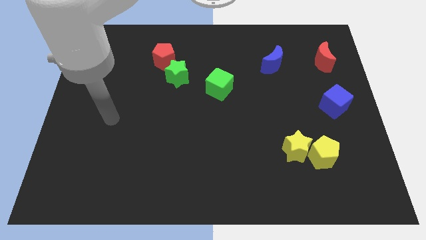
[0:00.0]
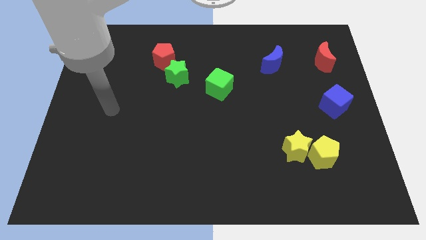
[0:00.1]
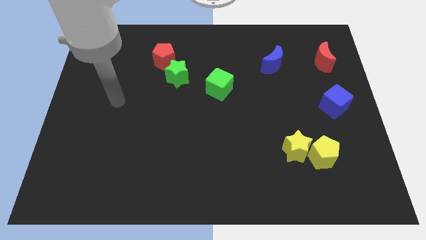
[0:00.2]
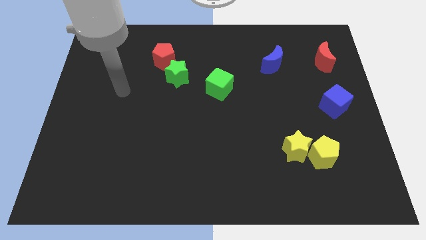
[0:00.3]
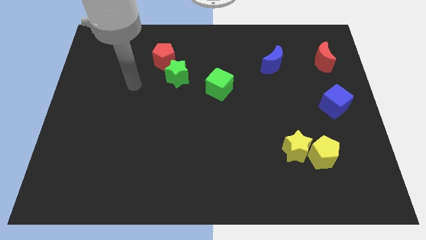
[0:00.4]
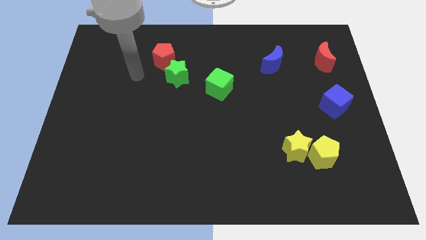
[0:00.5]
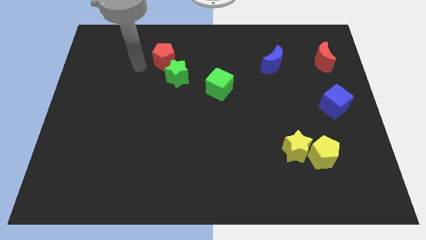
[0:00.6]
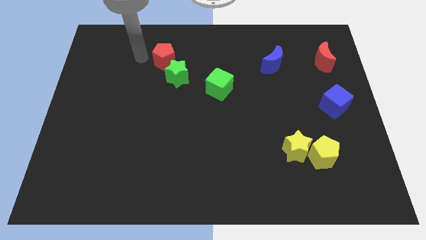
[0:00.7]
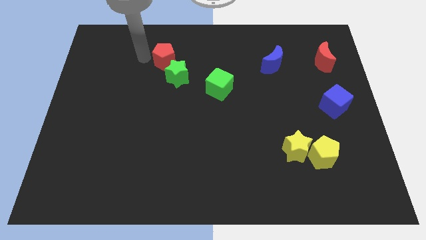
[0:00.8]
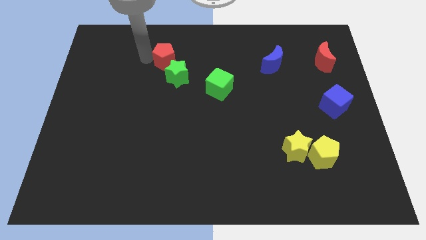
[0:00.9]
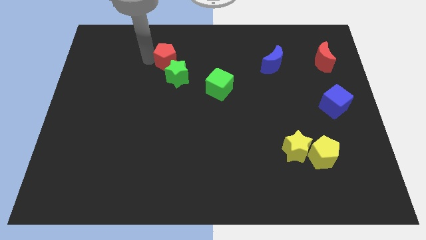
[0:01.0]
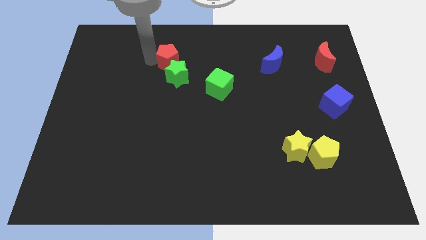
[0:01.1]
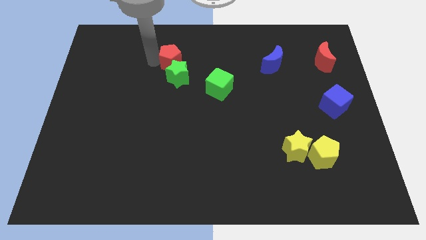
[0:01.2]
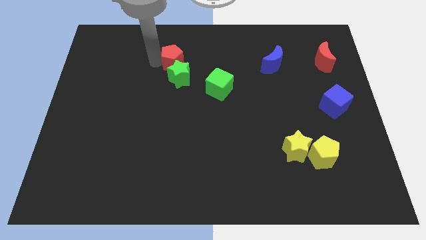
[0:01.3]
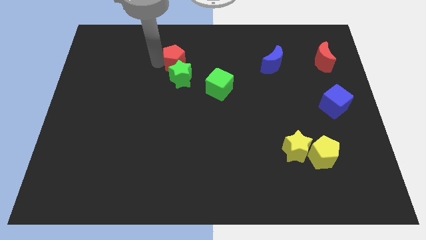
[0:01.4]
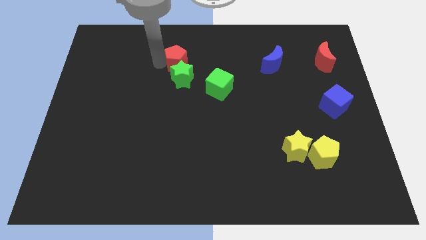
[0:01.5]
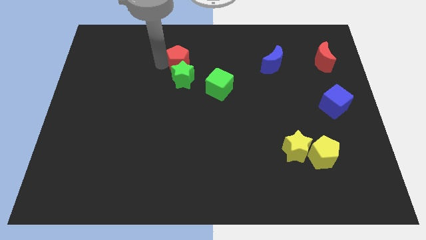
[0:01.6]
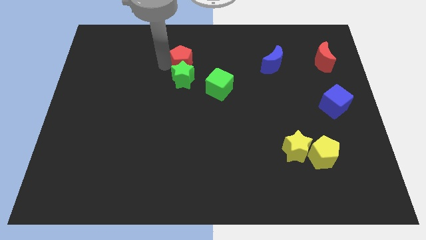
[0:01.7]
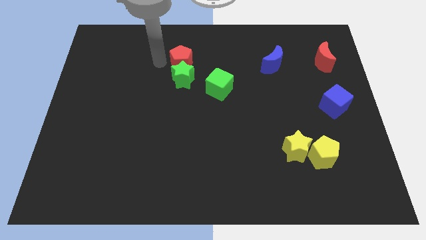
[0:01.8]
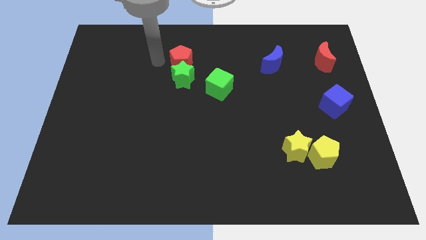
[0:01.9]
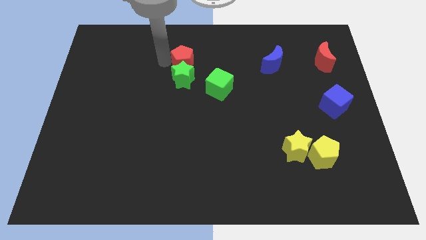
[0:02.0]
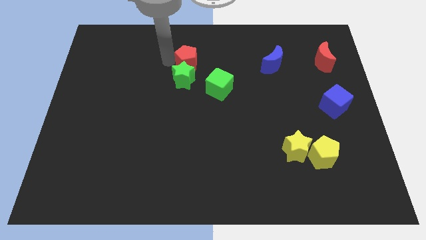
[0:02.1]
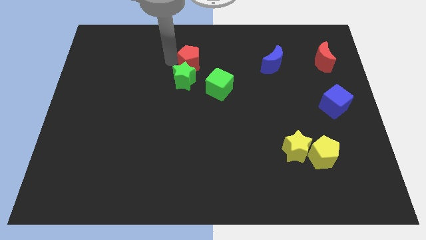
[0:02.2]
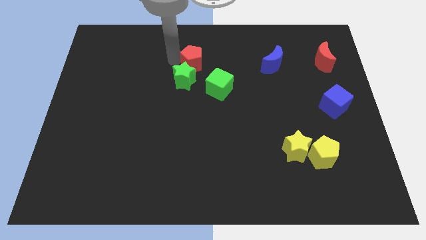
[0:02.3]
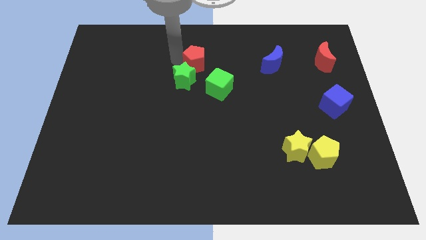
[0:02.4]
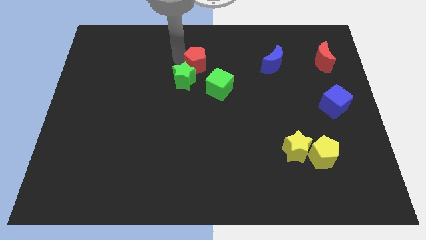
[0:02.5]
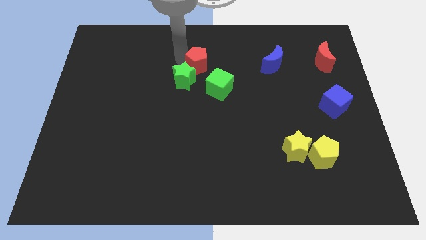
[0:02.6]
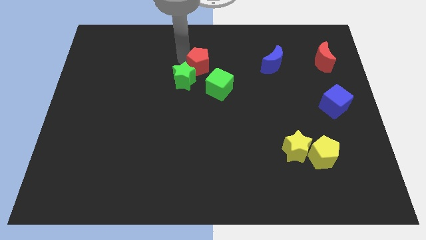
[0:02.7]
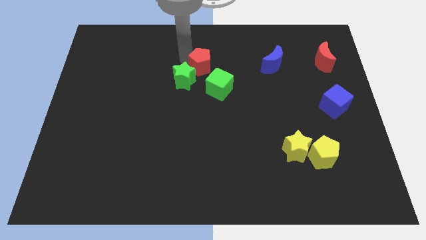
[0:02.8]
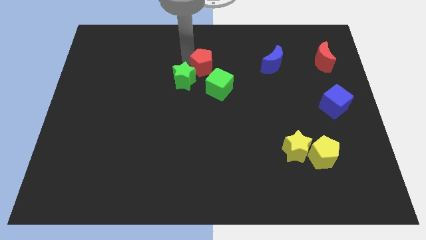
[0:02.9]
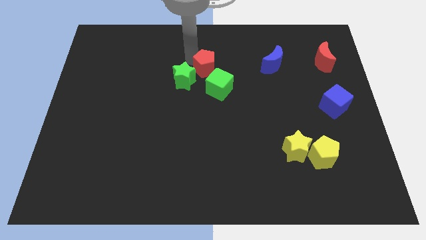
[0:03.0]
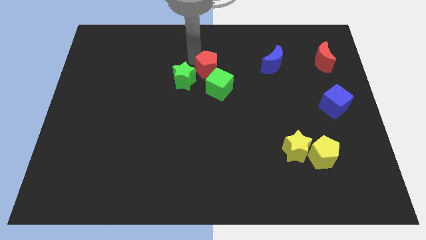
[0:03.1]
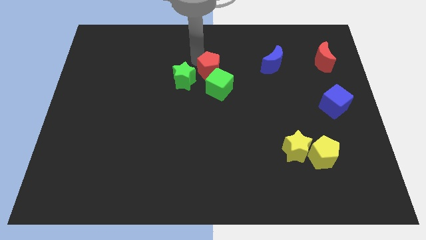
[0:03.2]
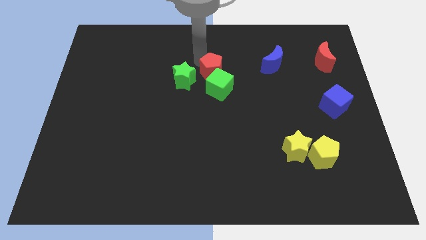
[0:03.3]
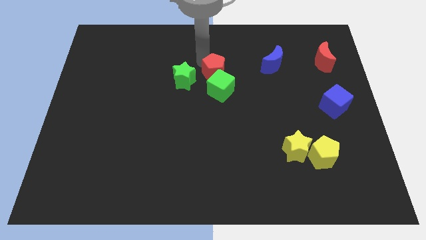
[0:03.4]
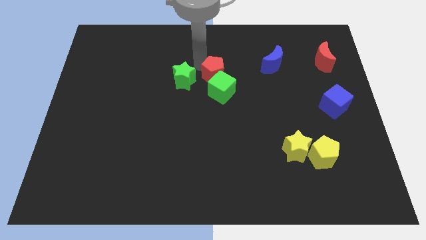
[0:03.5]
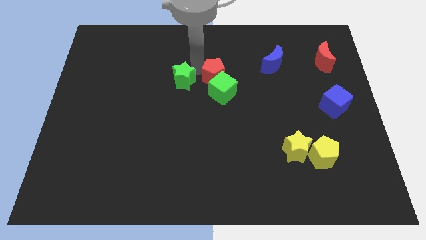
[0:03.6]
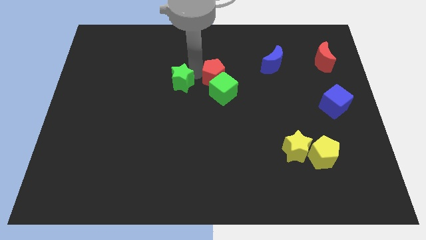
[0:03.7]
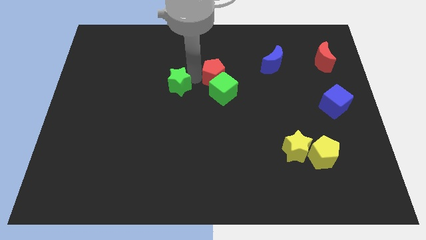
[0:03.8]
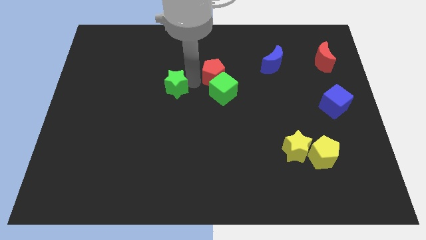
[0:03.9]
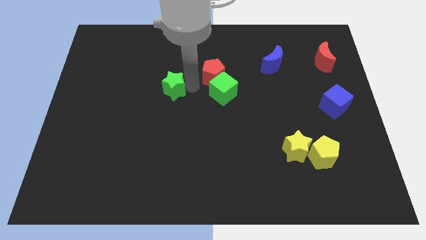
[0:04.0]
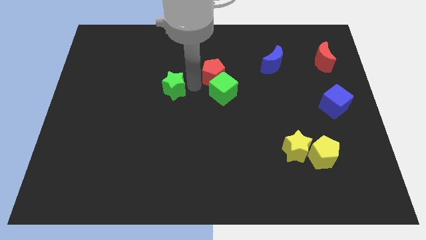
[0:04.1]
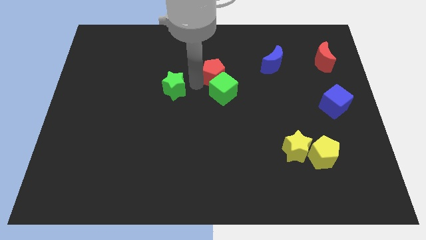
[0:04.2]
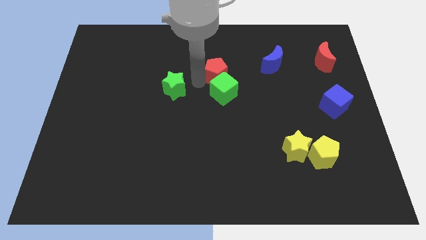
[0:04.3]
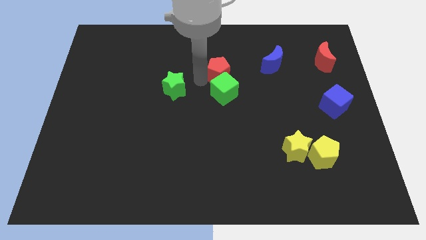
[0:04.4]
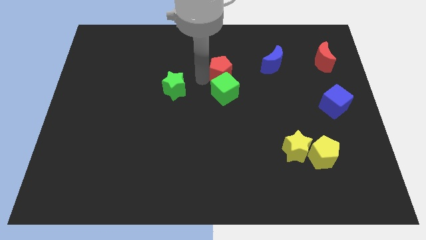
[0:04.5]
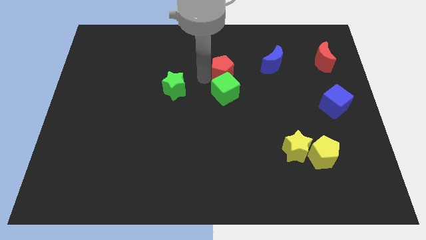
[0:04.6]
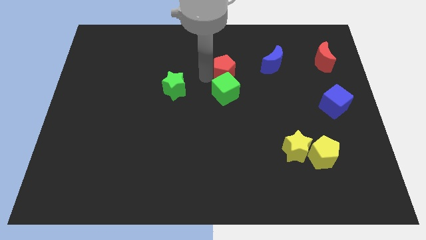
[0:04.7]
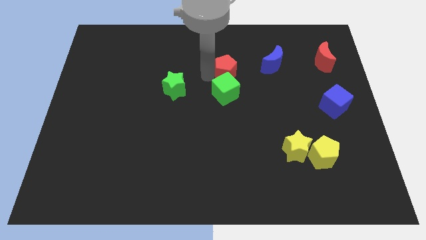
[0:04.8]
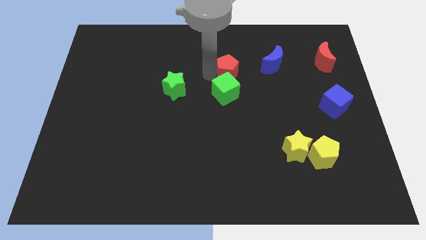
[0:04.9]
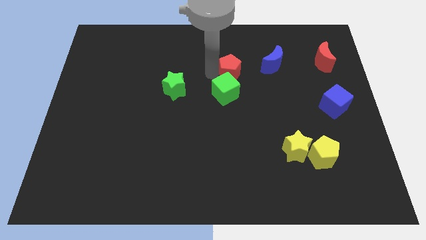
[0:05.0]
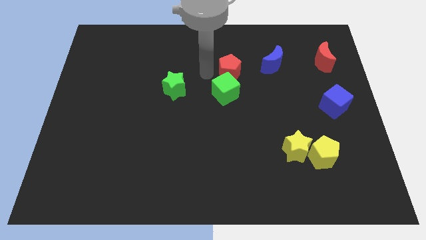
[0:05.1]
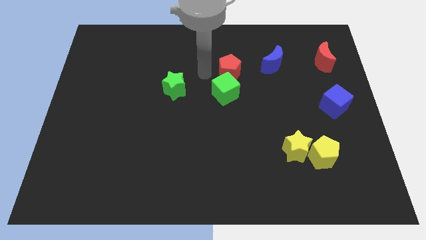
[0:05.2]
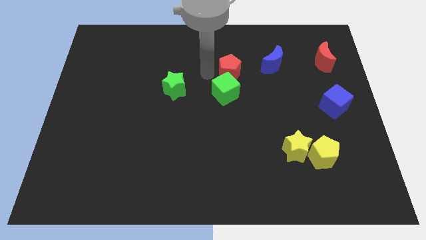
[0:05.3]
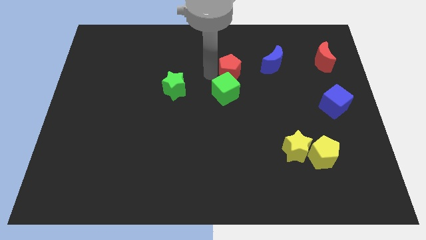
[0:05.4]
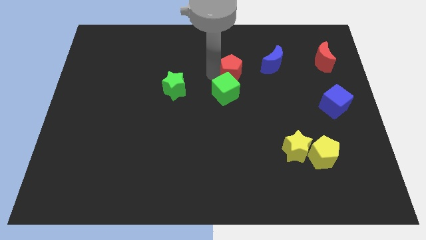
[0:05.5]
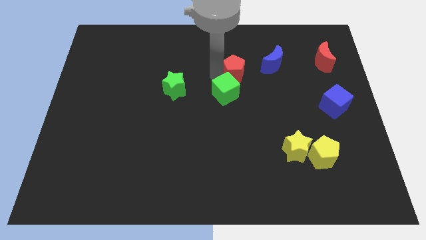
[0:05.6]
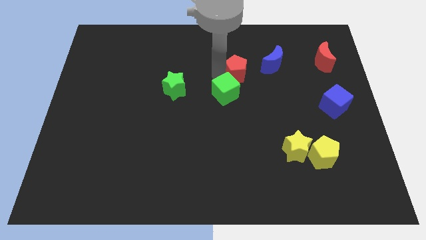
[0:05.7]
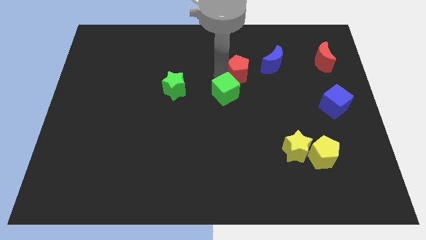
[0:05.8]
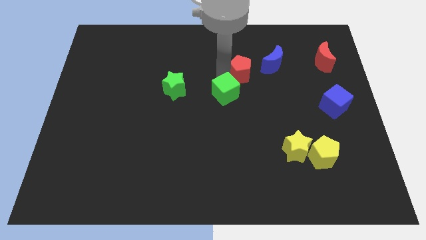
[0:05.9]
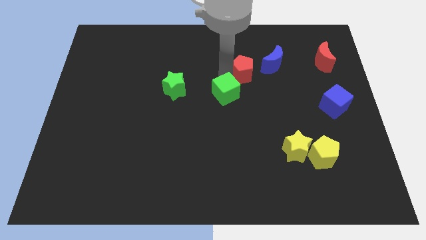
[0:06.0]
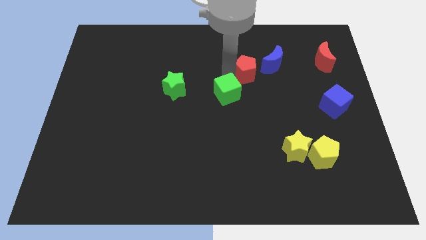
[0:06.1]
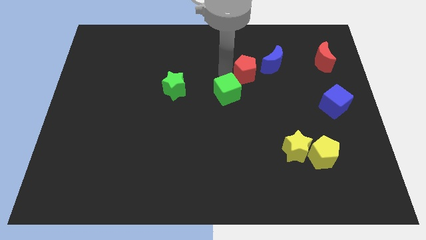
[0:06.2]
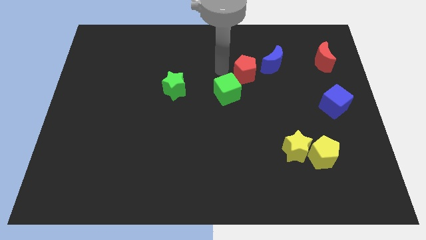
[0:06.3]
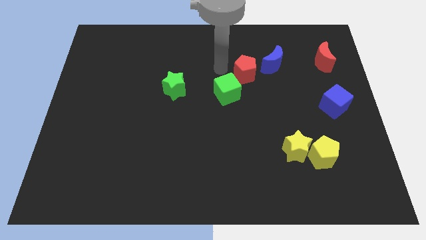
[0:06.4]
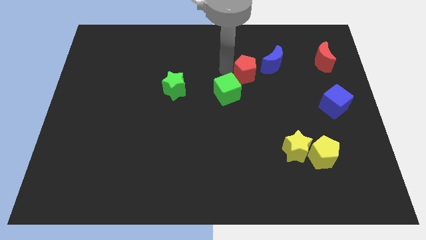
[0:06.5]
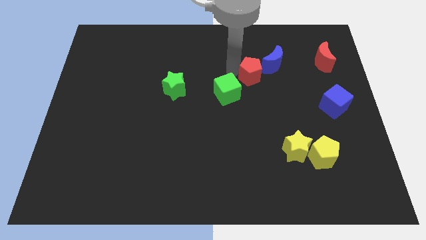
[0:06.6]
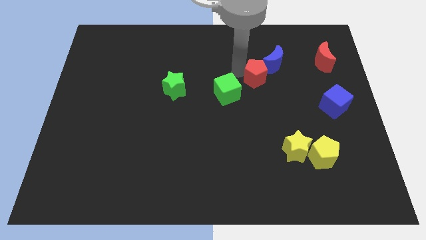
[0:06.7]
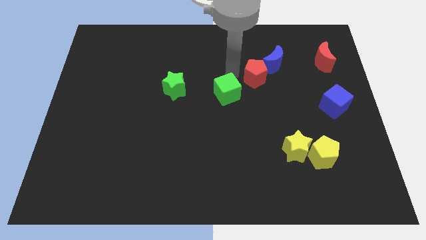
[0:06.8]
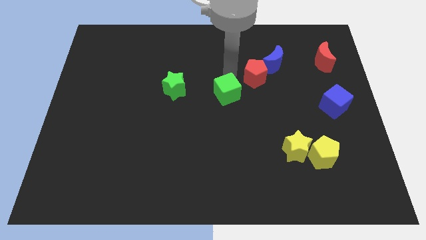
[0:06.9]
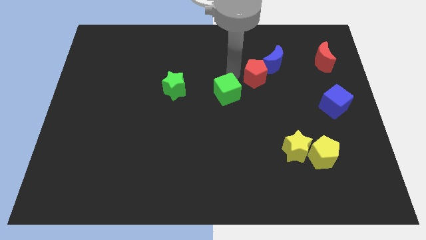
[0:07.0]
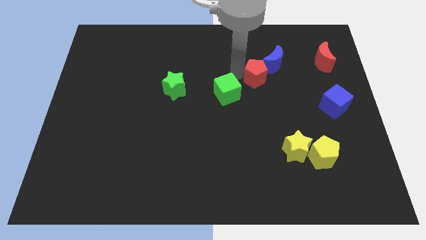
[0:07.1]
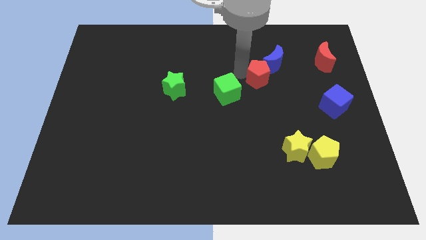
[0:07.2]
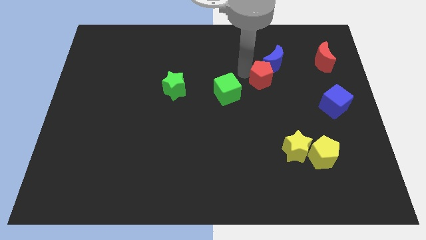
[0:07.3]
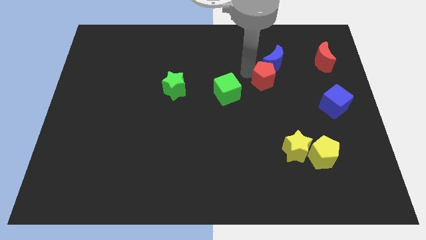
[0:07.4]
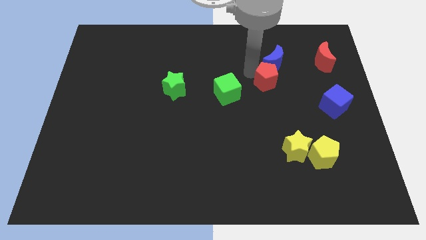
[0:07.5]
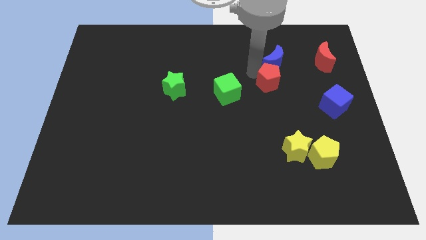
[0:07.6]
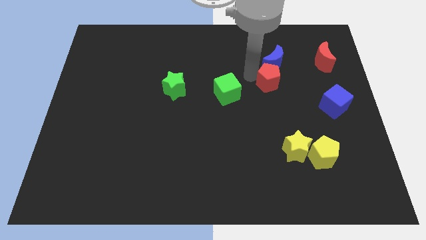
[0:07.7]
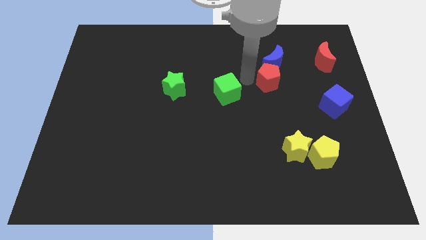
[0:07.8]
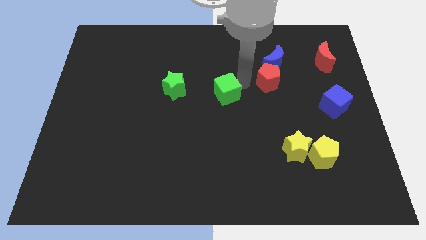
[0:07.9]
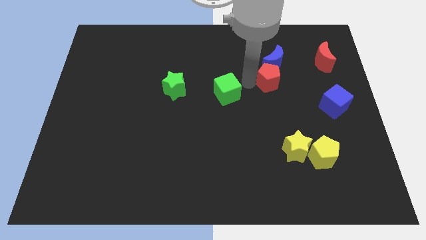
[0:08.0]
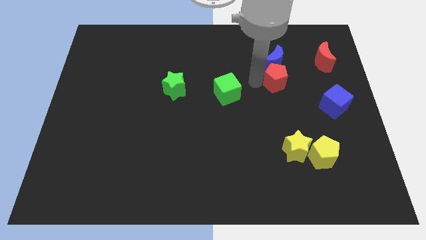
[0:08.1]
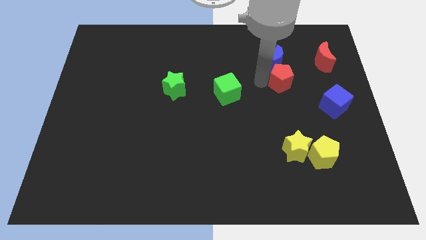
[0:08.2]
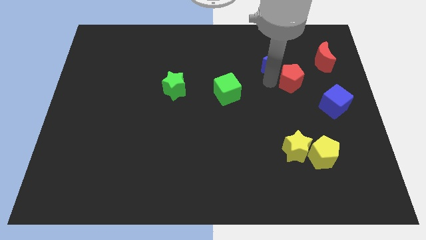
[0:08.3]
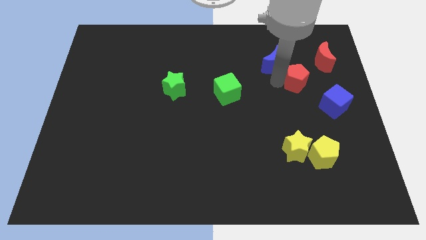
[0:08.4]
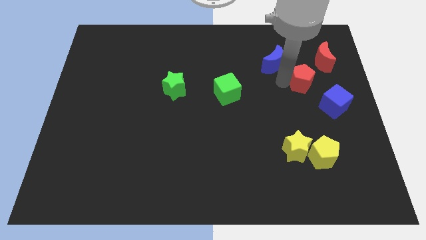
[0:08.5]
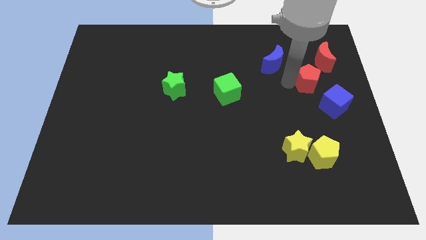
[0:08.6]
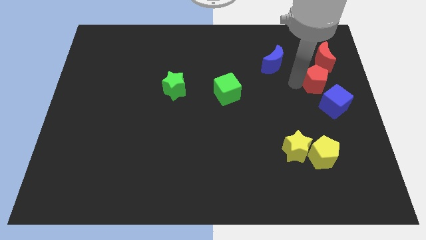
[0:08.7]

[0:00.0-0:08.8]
push the red pentagon to the top of the blue cube
